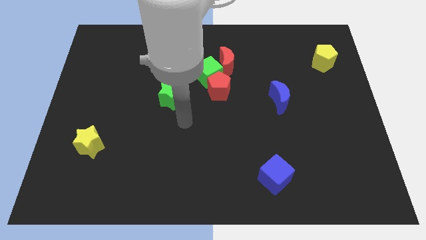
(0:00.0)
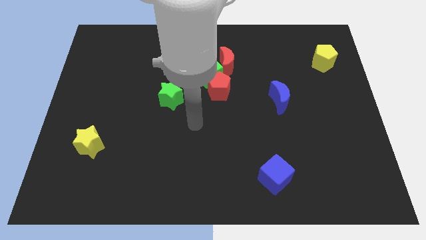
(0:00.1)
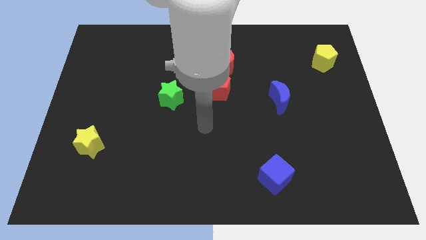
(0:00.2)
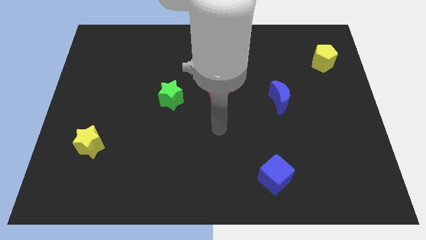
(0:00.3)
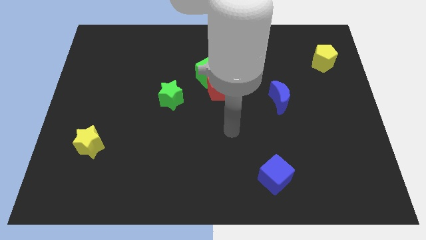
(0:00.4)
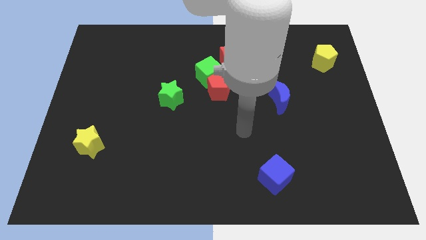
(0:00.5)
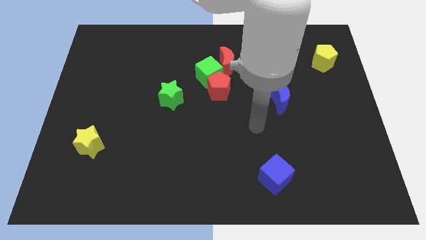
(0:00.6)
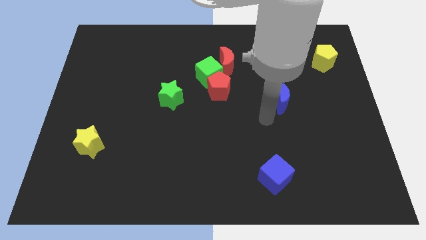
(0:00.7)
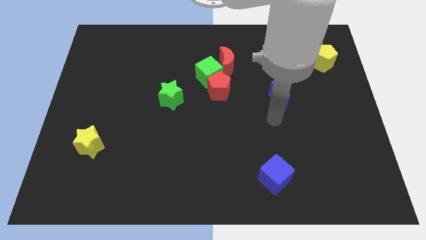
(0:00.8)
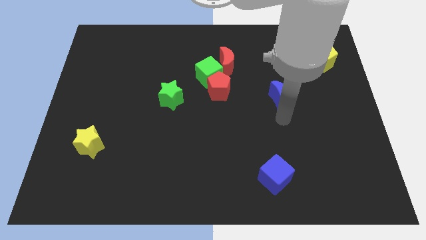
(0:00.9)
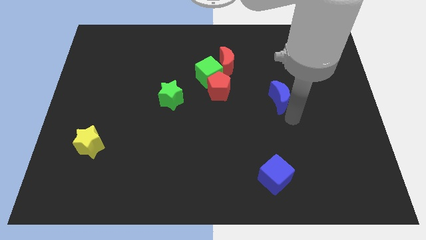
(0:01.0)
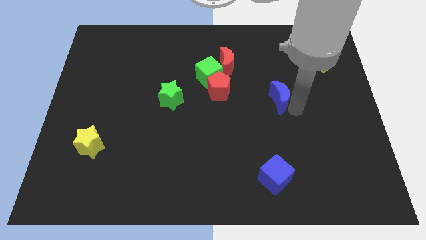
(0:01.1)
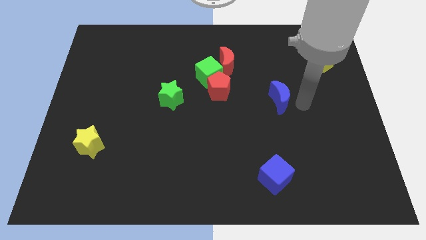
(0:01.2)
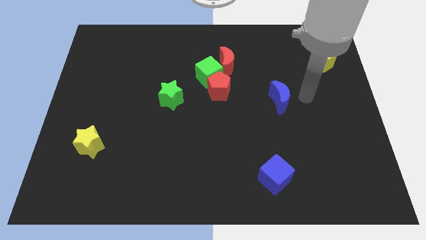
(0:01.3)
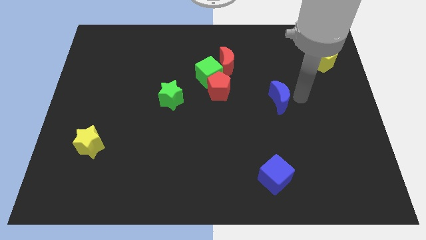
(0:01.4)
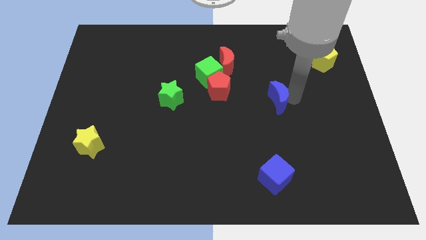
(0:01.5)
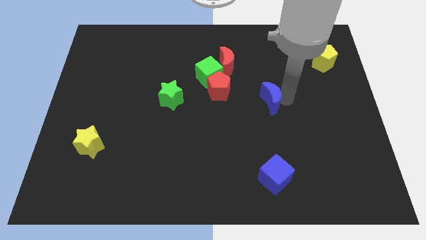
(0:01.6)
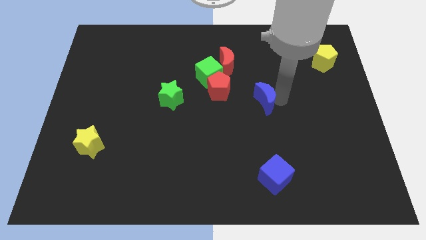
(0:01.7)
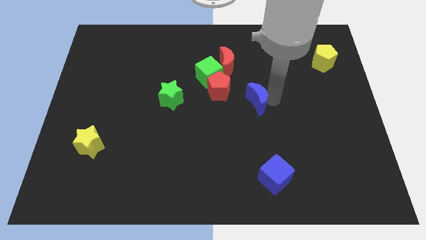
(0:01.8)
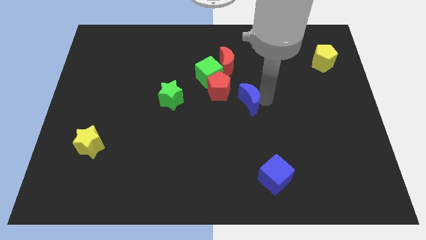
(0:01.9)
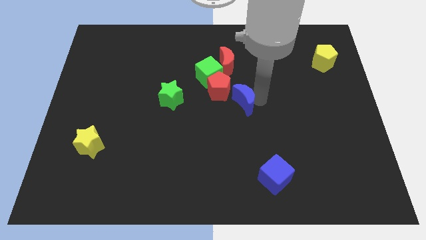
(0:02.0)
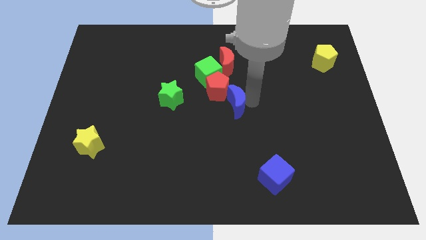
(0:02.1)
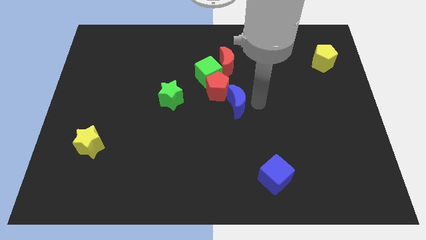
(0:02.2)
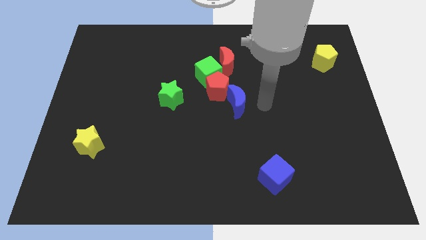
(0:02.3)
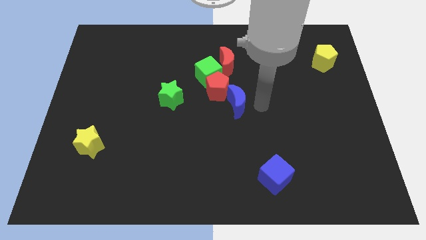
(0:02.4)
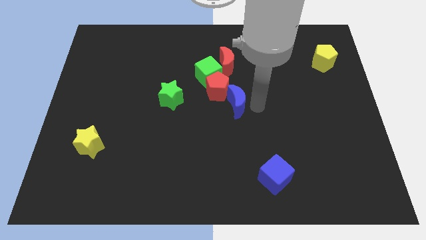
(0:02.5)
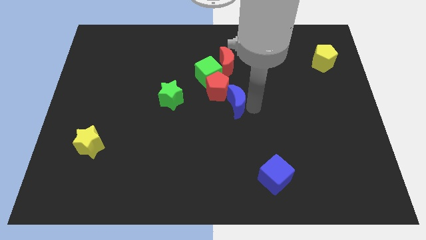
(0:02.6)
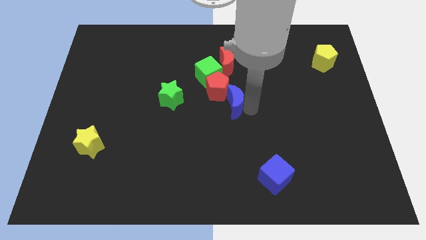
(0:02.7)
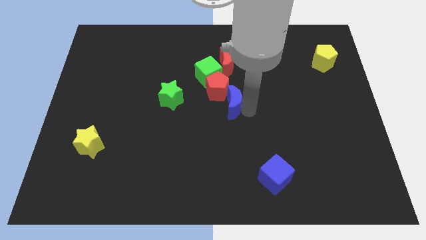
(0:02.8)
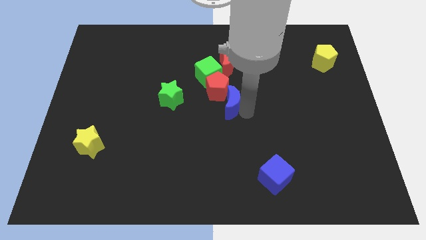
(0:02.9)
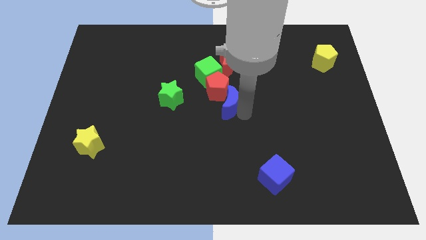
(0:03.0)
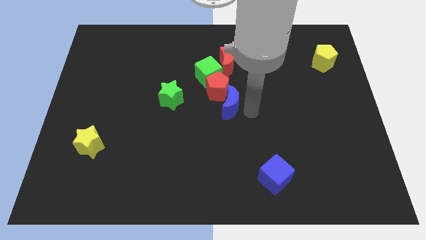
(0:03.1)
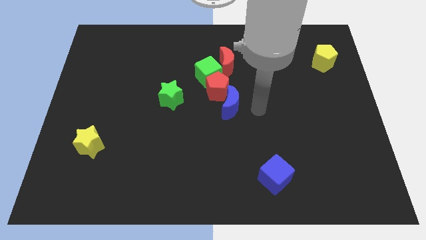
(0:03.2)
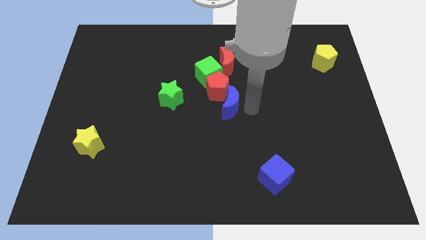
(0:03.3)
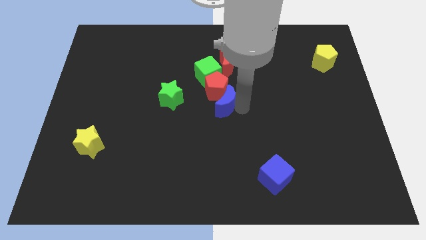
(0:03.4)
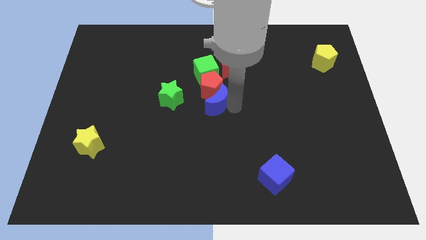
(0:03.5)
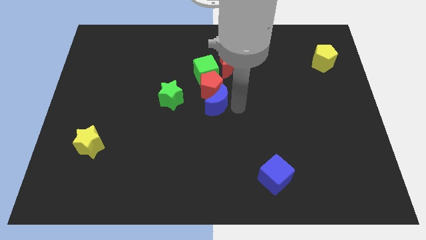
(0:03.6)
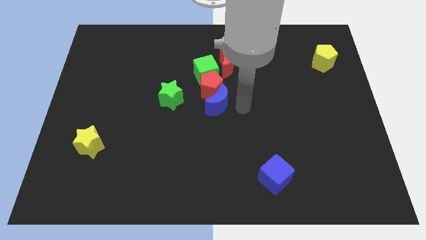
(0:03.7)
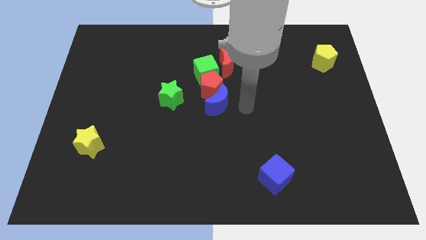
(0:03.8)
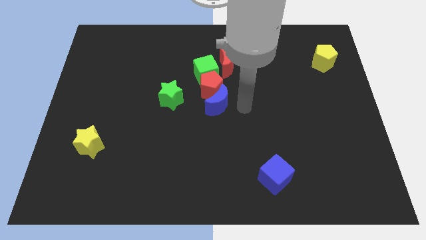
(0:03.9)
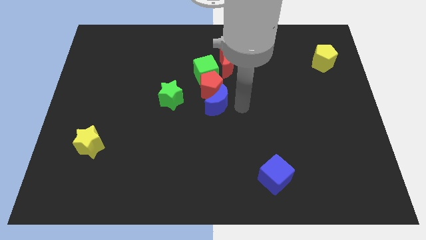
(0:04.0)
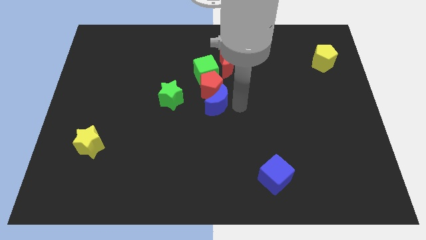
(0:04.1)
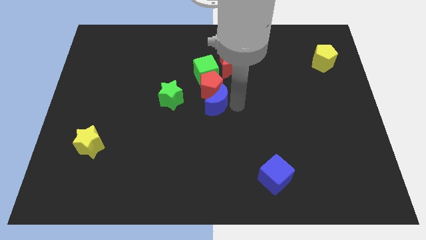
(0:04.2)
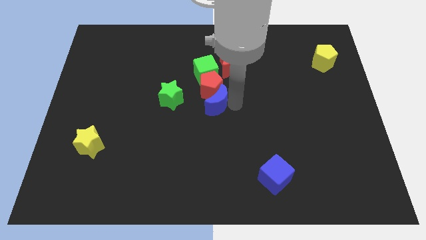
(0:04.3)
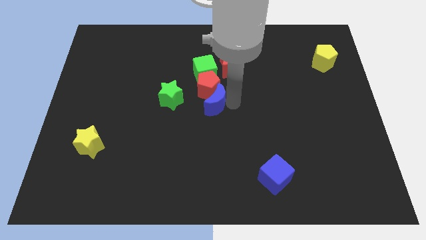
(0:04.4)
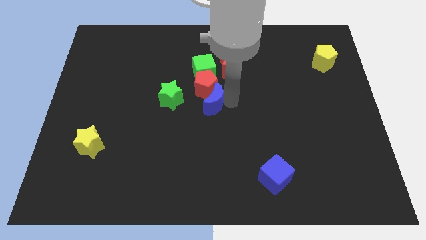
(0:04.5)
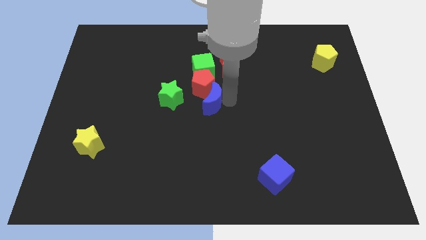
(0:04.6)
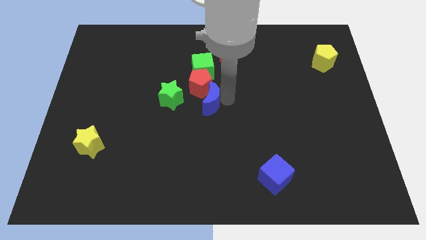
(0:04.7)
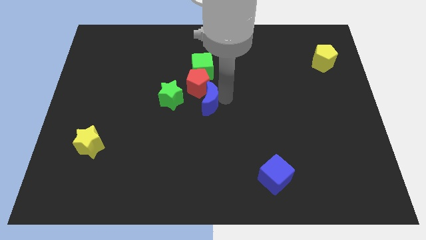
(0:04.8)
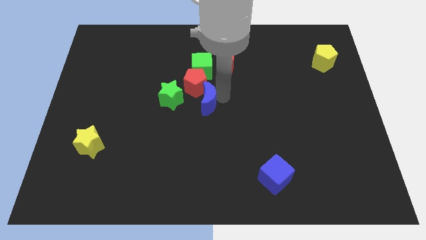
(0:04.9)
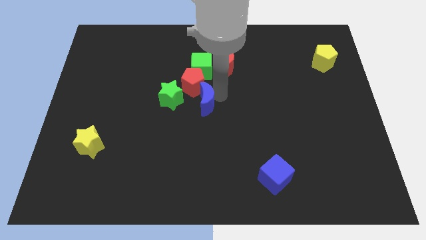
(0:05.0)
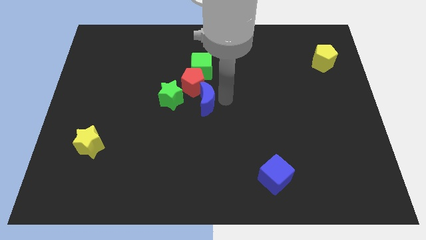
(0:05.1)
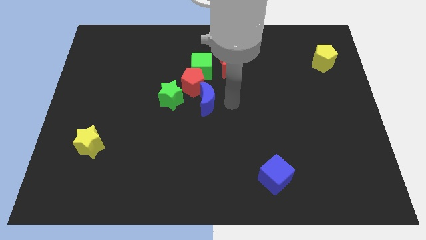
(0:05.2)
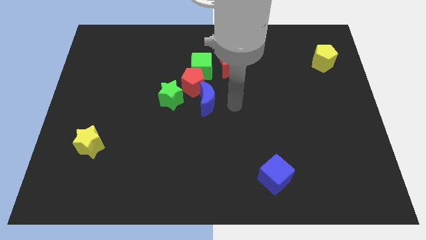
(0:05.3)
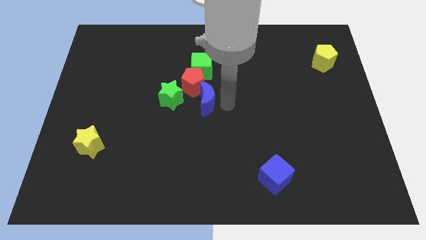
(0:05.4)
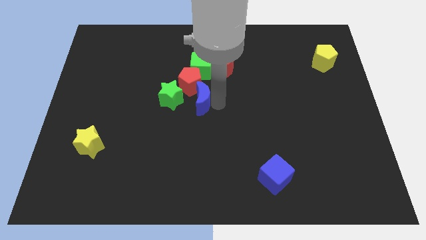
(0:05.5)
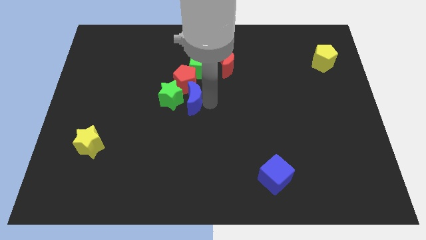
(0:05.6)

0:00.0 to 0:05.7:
put the blue moon next to the green star

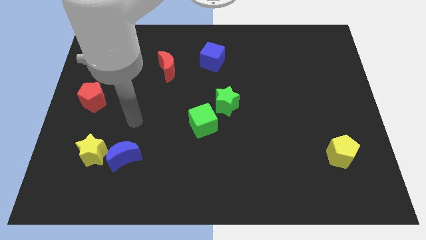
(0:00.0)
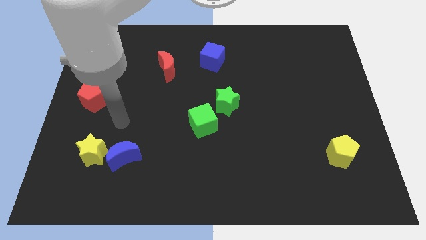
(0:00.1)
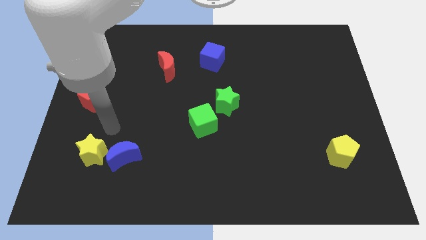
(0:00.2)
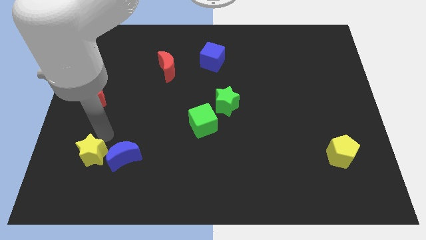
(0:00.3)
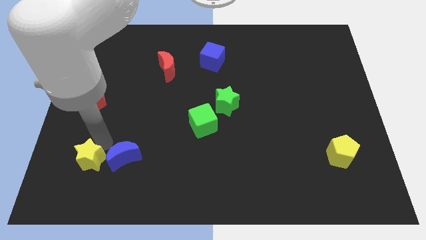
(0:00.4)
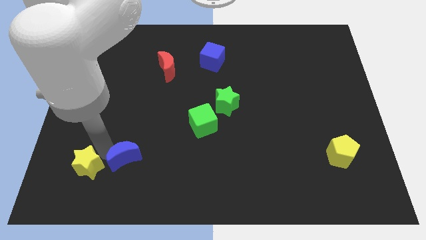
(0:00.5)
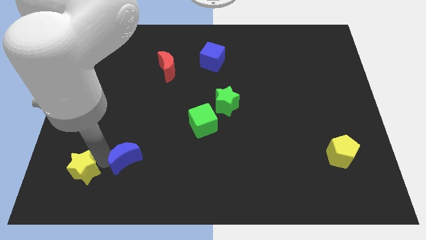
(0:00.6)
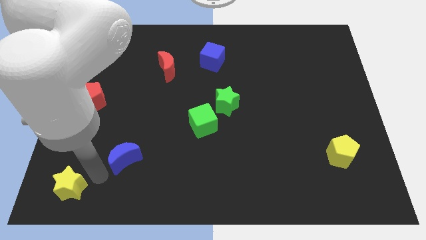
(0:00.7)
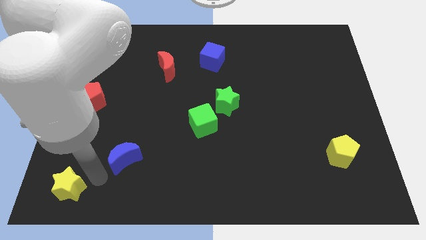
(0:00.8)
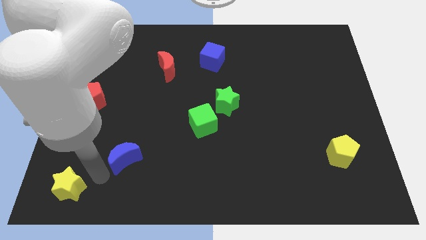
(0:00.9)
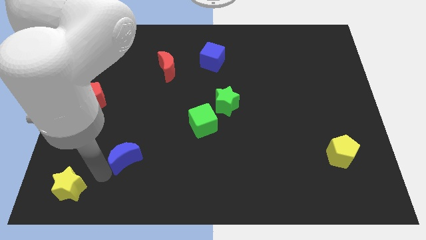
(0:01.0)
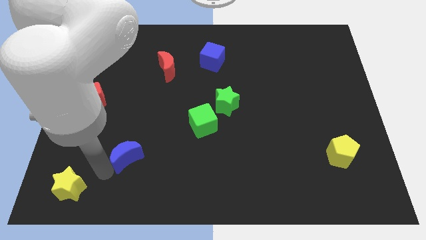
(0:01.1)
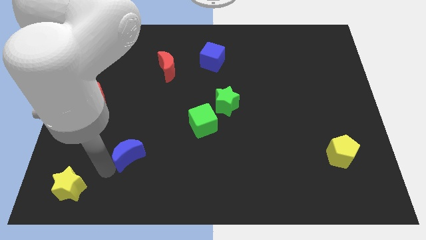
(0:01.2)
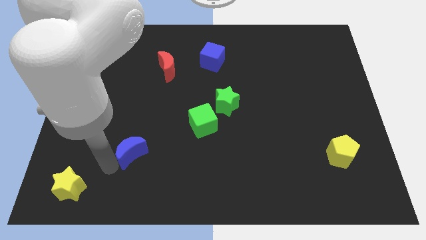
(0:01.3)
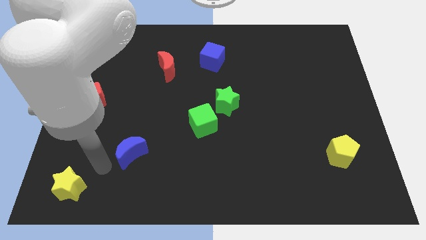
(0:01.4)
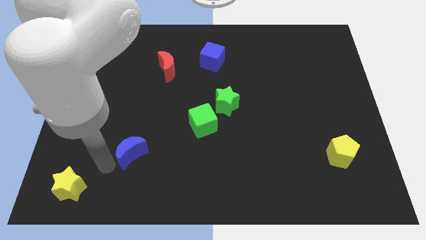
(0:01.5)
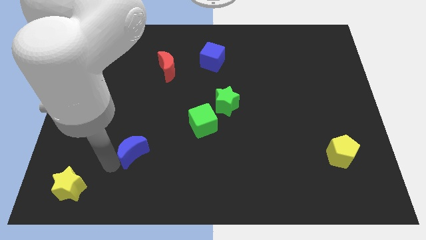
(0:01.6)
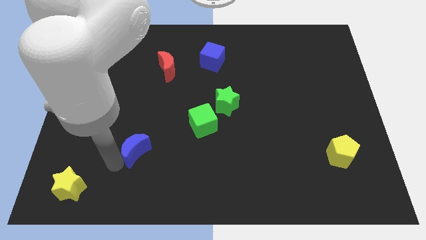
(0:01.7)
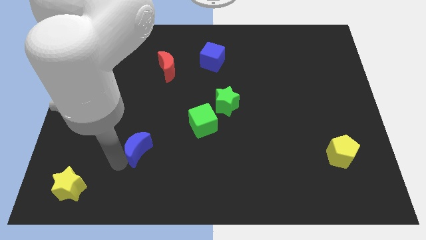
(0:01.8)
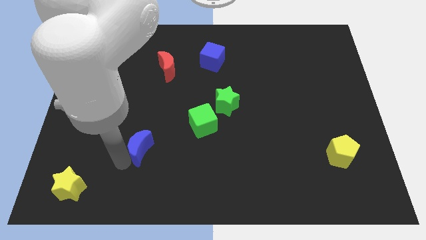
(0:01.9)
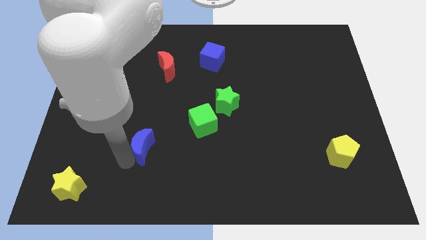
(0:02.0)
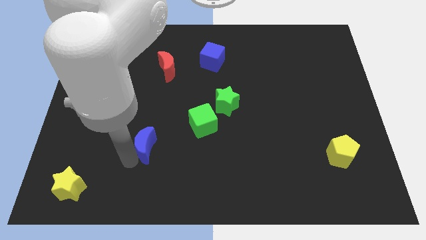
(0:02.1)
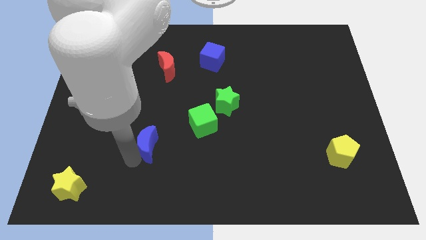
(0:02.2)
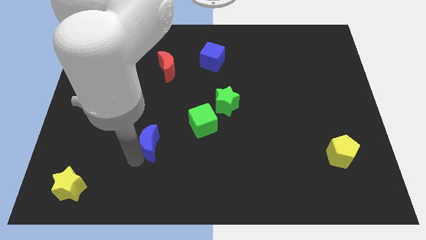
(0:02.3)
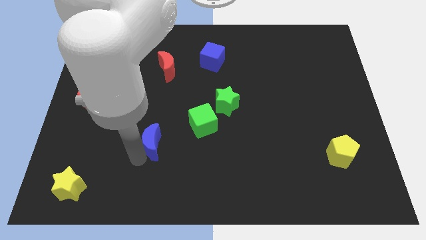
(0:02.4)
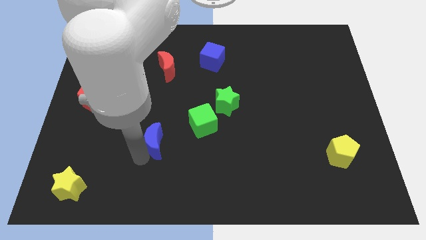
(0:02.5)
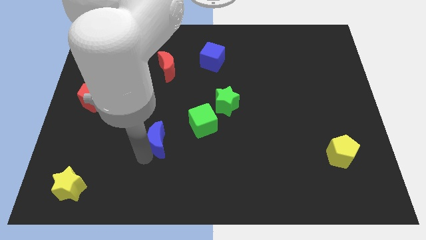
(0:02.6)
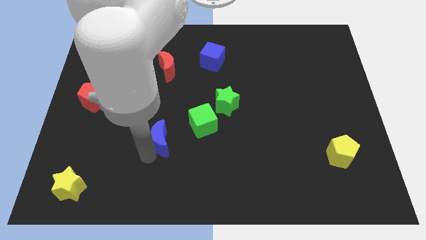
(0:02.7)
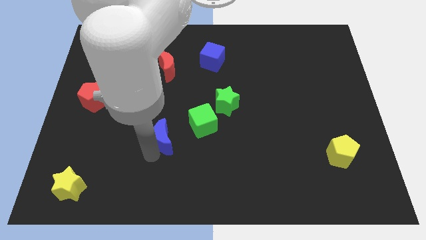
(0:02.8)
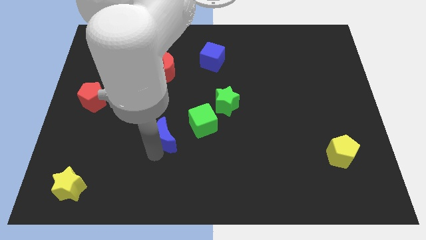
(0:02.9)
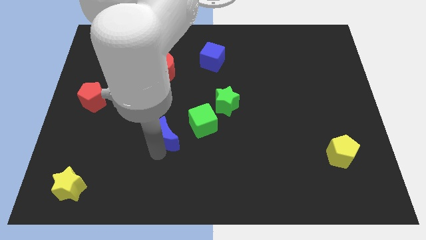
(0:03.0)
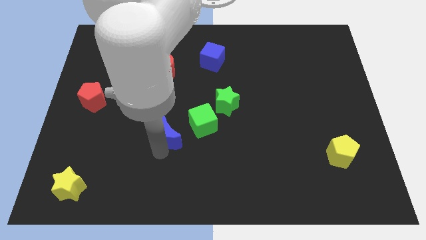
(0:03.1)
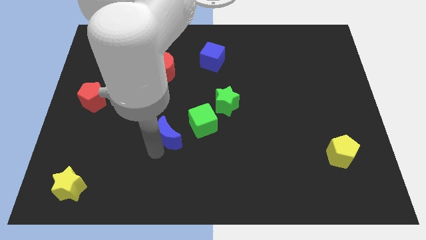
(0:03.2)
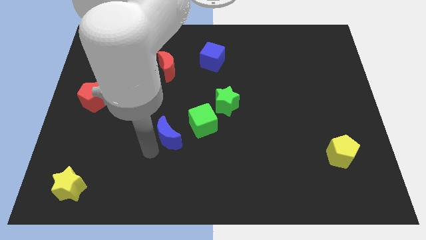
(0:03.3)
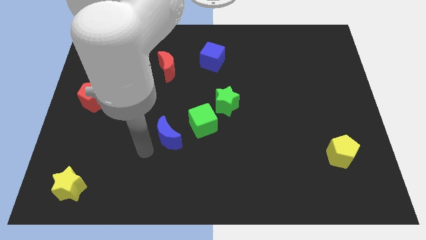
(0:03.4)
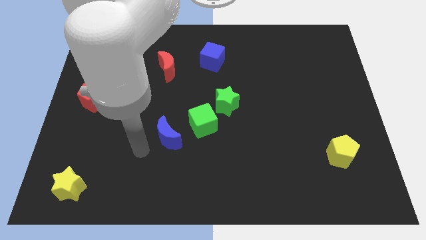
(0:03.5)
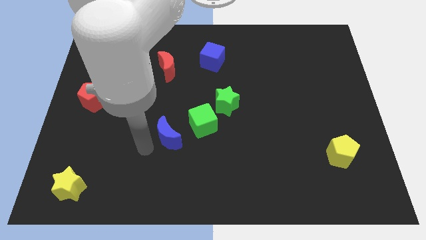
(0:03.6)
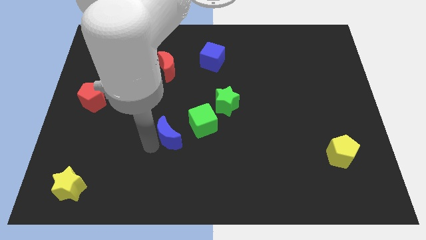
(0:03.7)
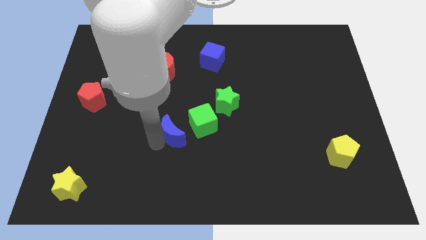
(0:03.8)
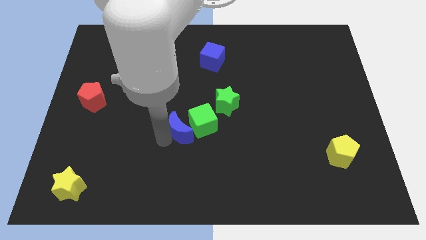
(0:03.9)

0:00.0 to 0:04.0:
move the blue moon next to the green cube
